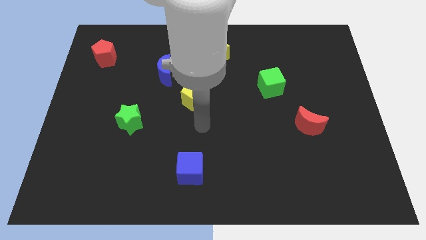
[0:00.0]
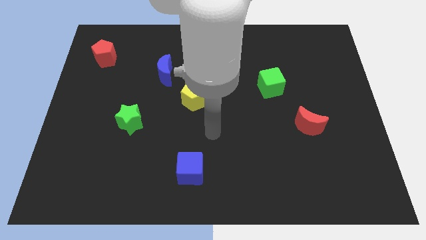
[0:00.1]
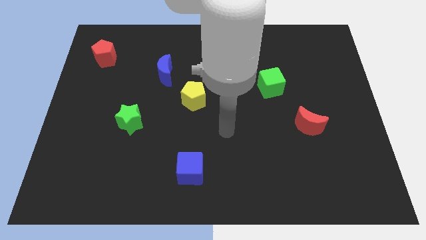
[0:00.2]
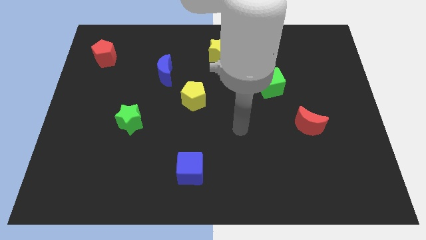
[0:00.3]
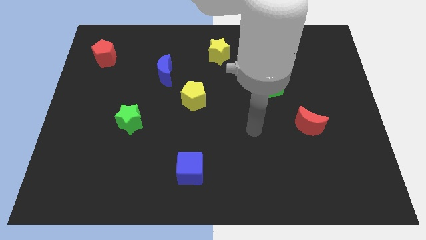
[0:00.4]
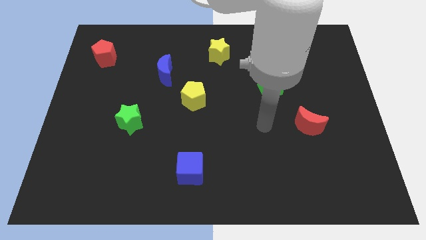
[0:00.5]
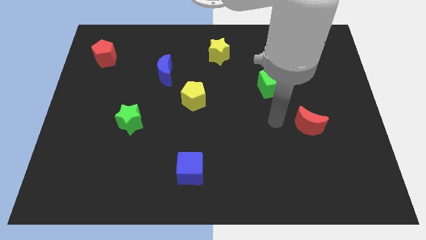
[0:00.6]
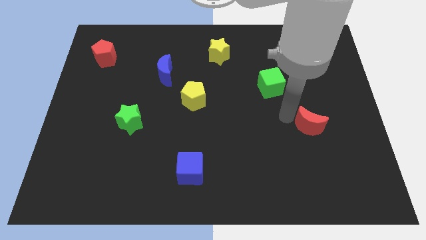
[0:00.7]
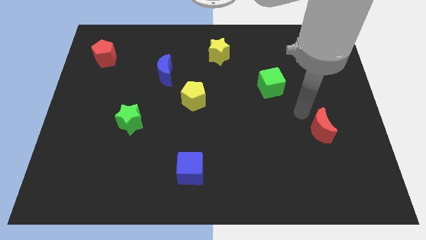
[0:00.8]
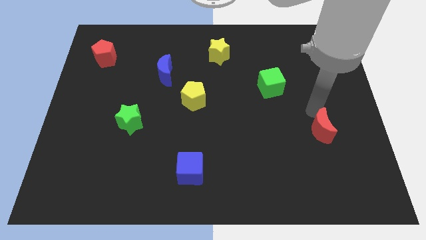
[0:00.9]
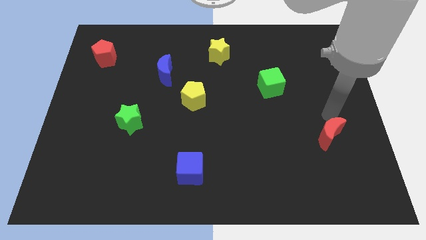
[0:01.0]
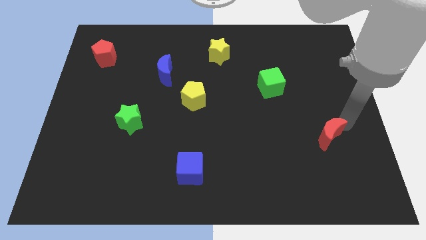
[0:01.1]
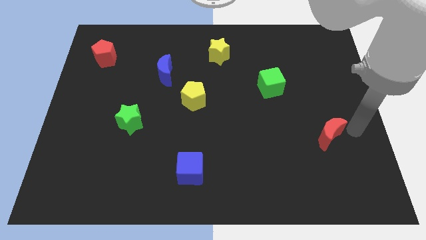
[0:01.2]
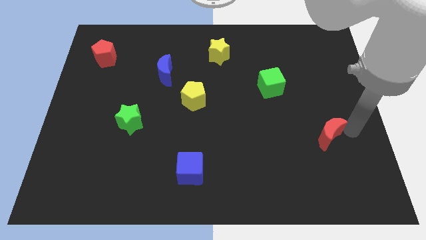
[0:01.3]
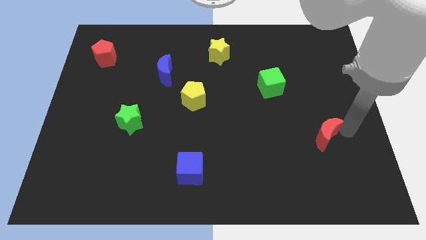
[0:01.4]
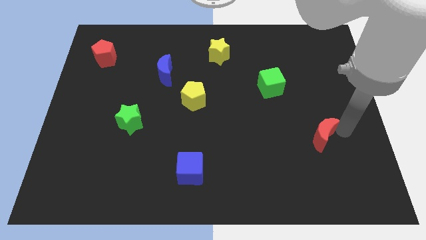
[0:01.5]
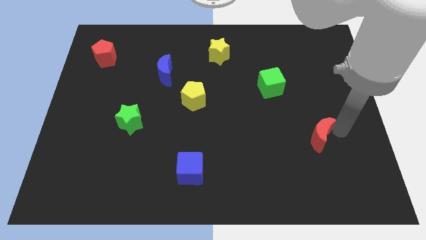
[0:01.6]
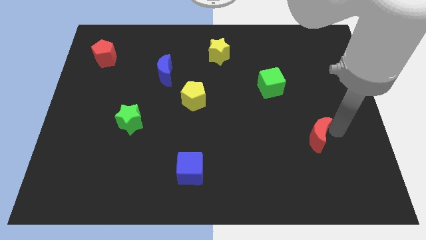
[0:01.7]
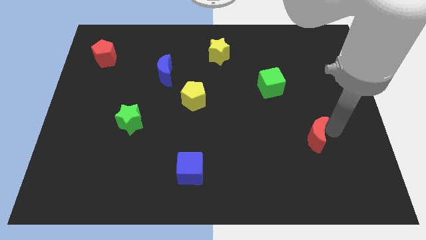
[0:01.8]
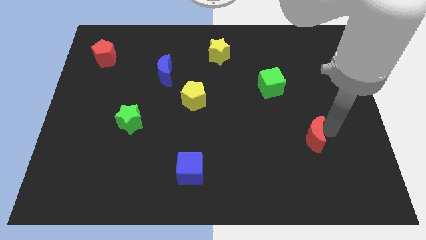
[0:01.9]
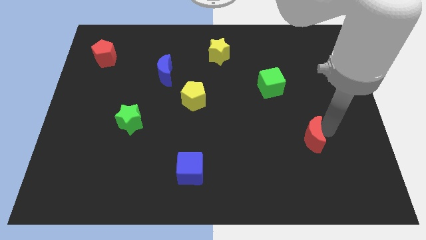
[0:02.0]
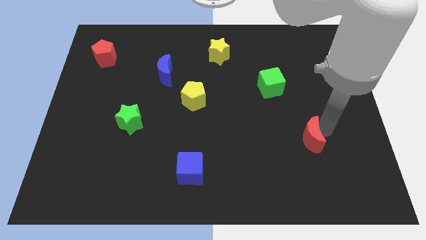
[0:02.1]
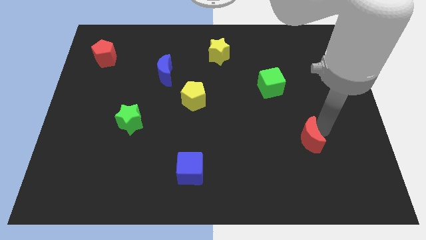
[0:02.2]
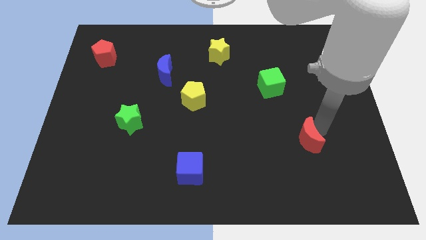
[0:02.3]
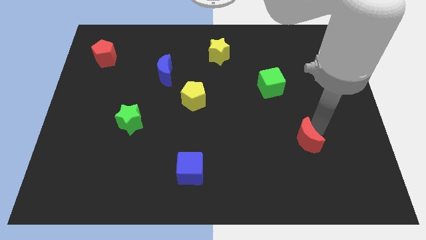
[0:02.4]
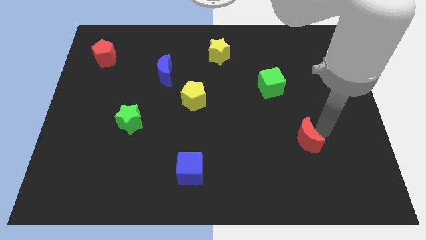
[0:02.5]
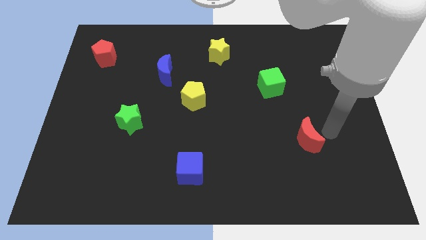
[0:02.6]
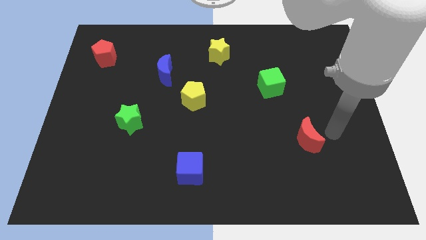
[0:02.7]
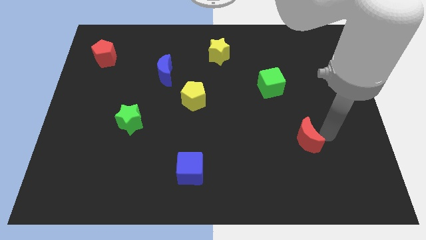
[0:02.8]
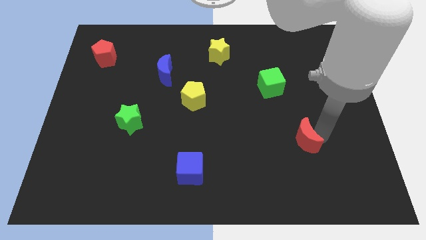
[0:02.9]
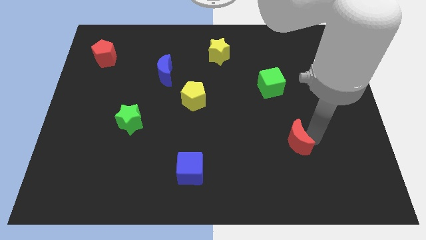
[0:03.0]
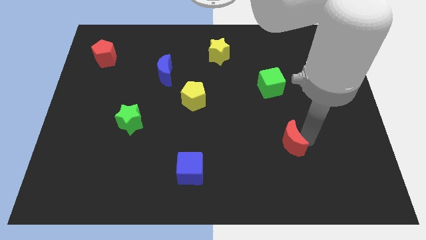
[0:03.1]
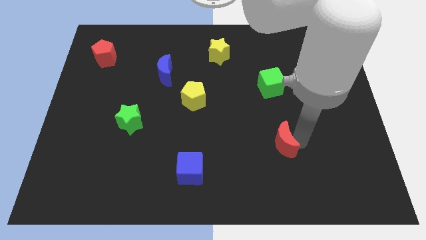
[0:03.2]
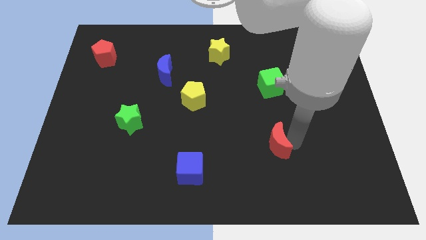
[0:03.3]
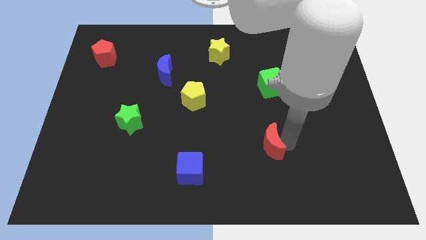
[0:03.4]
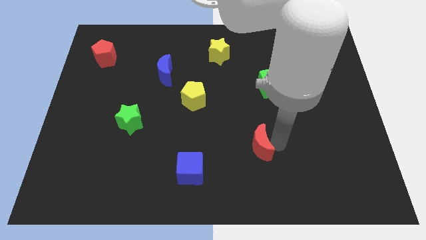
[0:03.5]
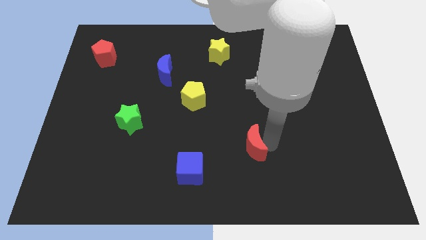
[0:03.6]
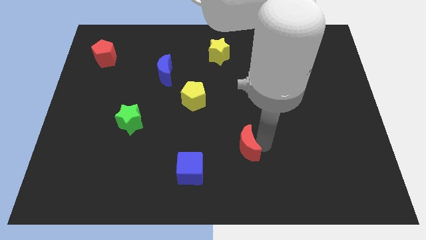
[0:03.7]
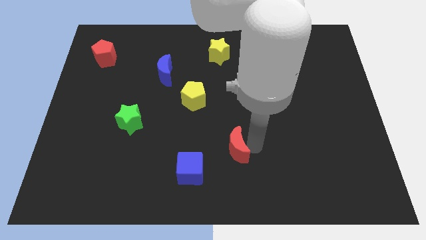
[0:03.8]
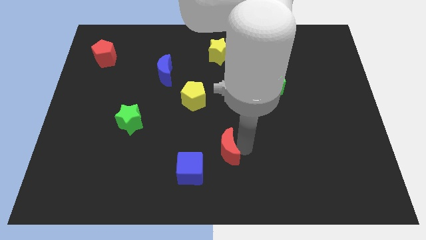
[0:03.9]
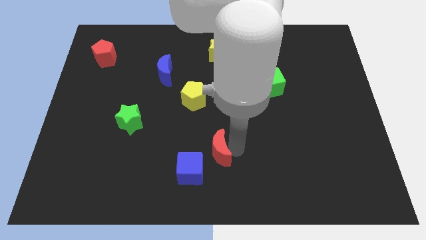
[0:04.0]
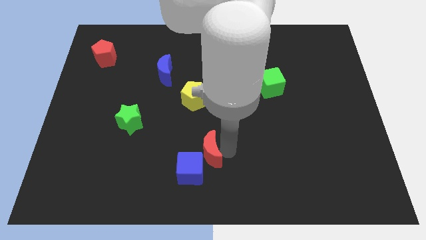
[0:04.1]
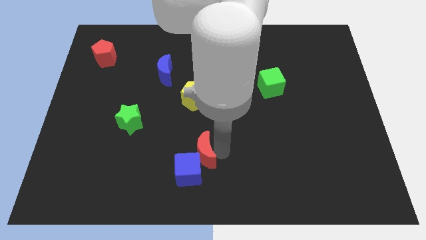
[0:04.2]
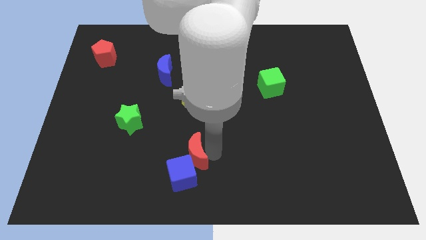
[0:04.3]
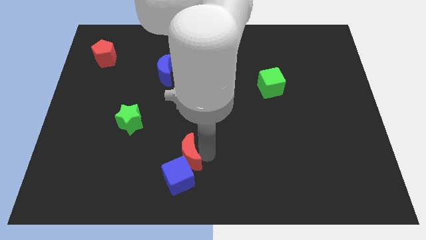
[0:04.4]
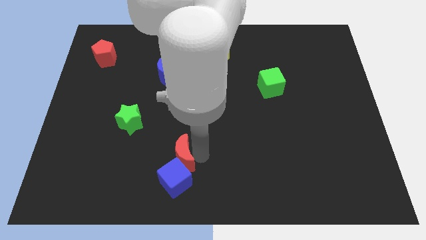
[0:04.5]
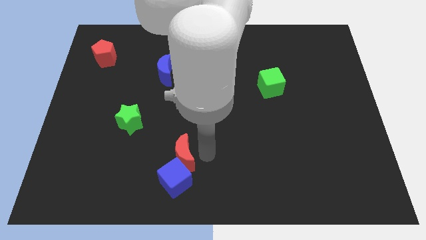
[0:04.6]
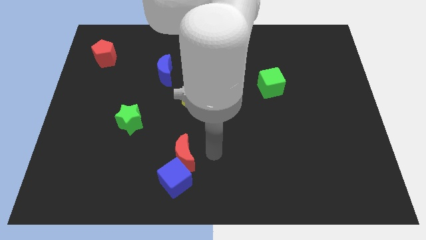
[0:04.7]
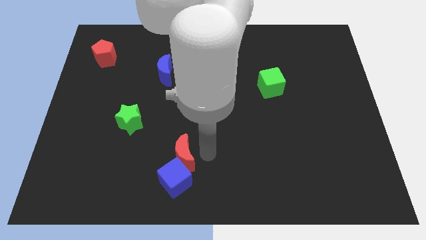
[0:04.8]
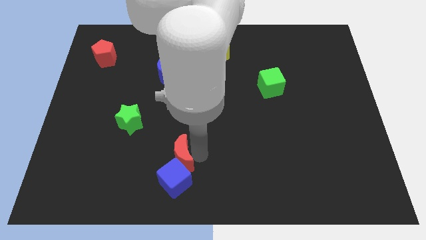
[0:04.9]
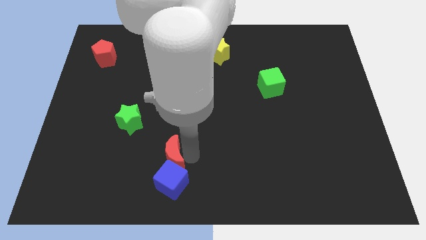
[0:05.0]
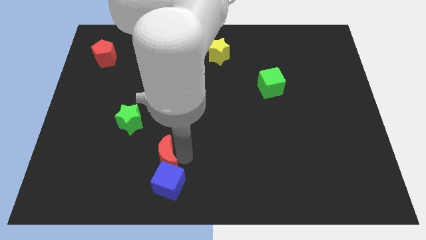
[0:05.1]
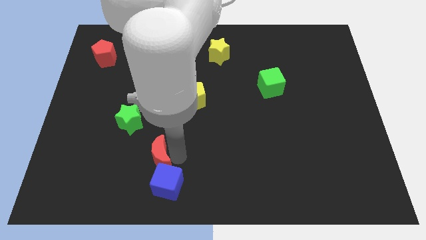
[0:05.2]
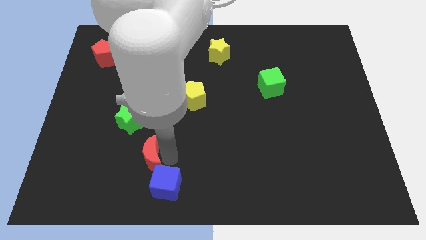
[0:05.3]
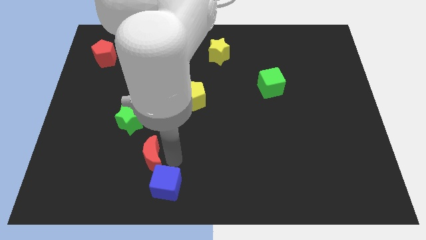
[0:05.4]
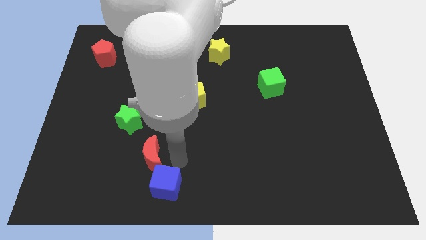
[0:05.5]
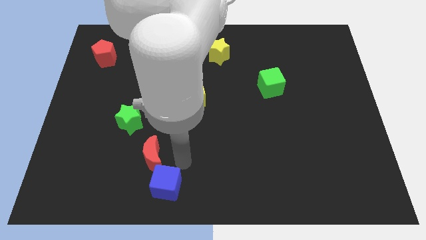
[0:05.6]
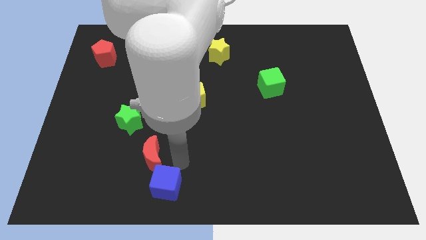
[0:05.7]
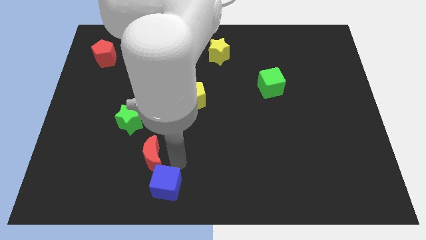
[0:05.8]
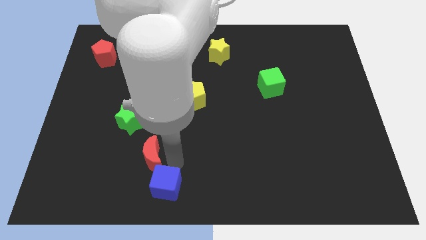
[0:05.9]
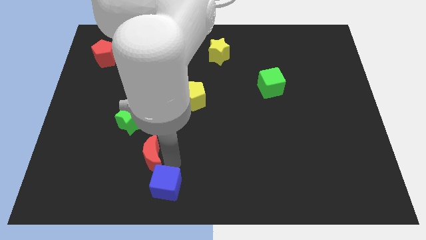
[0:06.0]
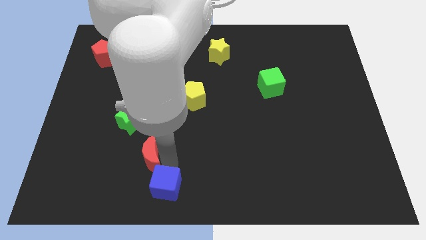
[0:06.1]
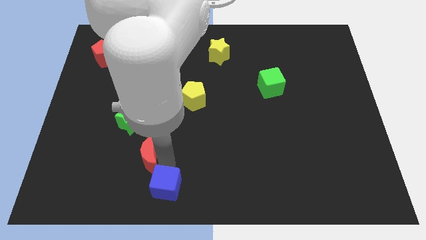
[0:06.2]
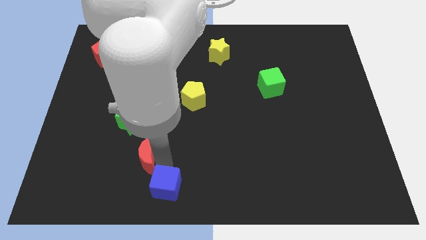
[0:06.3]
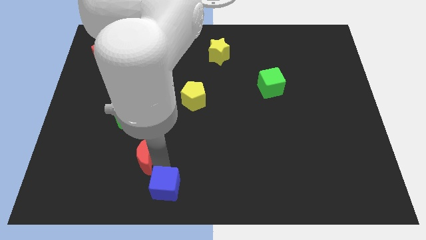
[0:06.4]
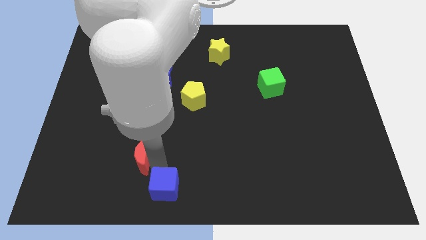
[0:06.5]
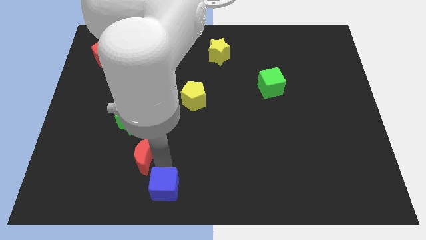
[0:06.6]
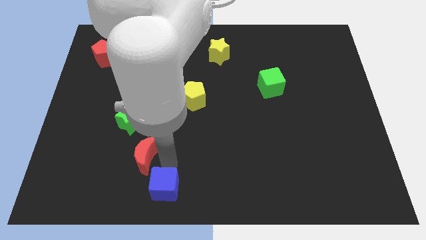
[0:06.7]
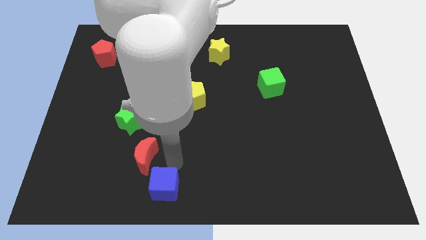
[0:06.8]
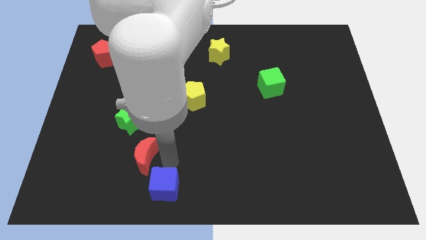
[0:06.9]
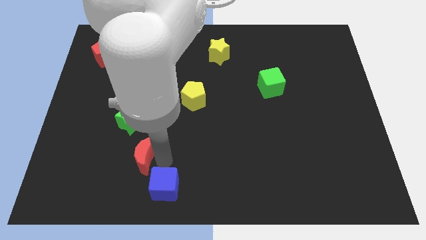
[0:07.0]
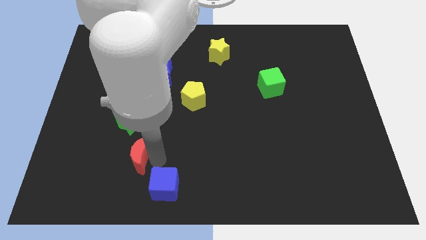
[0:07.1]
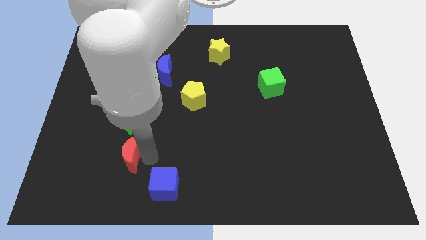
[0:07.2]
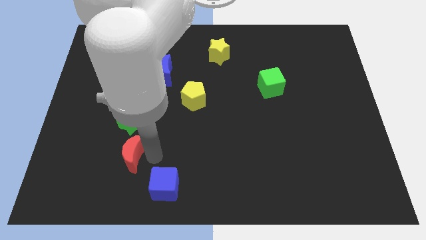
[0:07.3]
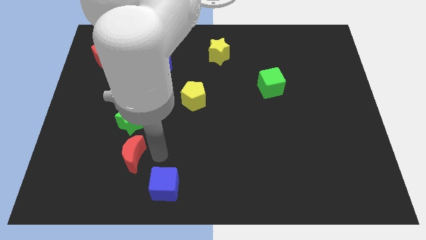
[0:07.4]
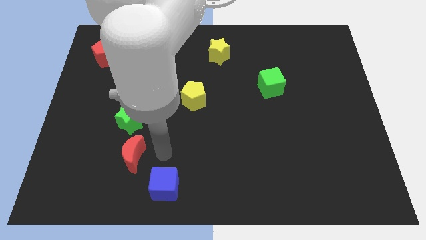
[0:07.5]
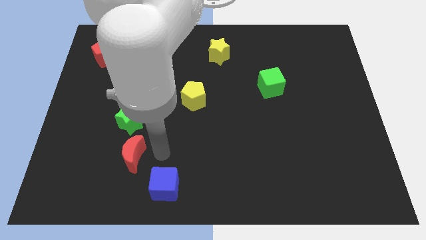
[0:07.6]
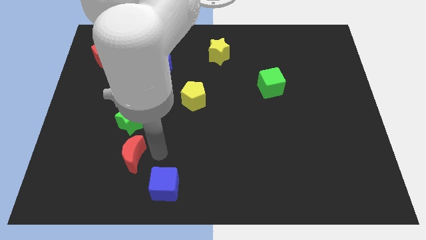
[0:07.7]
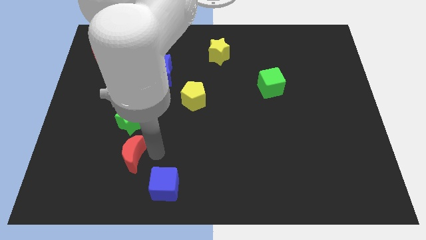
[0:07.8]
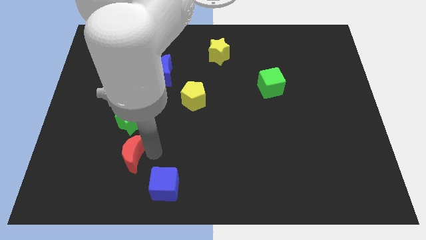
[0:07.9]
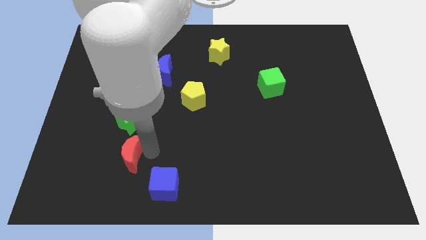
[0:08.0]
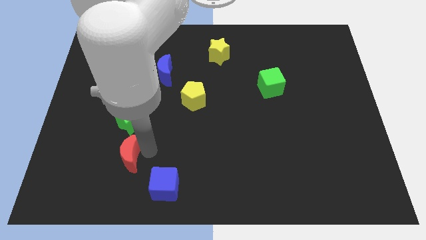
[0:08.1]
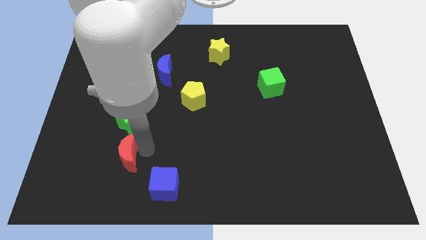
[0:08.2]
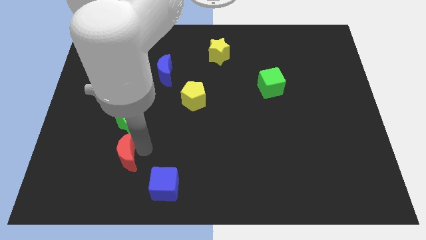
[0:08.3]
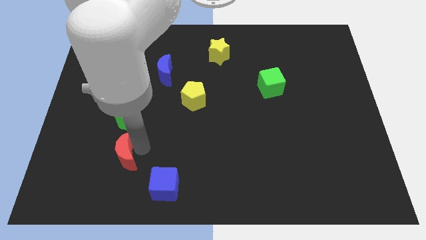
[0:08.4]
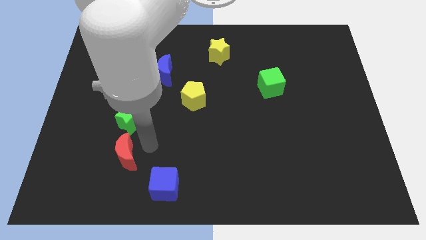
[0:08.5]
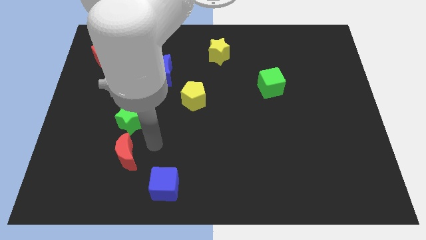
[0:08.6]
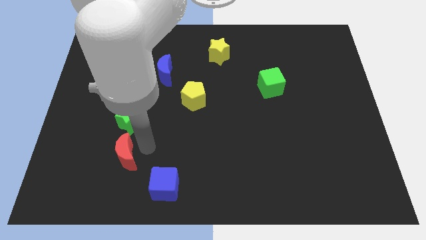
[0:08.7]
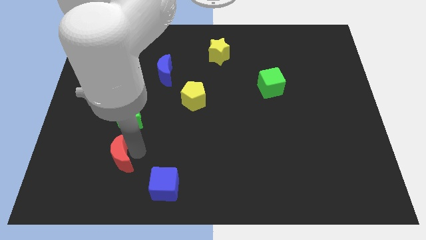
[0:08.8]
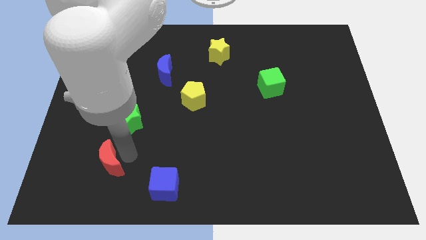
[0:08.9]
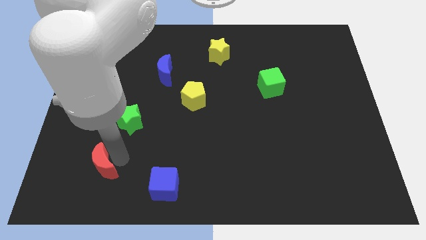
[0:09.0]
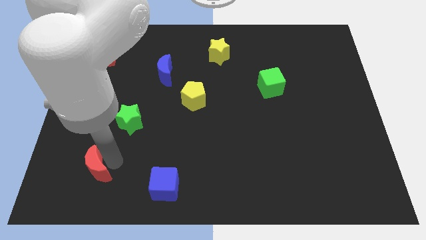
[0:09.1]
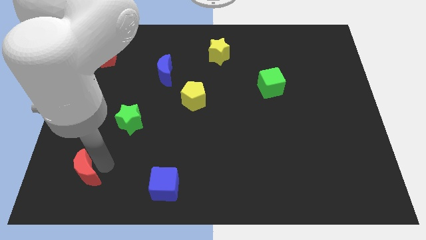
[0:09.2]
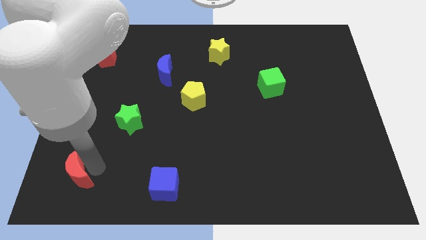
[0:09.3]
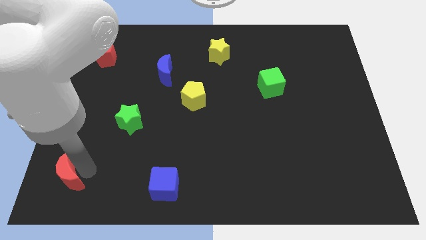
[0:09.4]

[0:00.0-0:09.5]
push the red moon to the lower left corner
